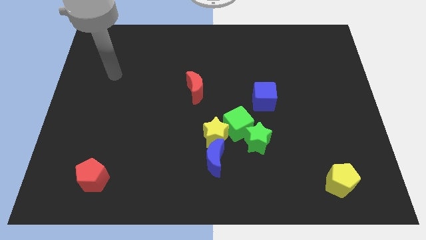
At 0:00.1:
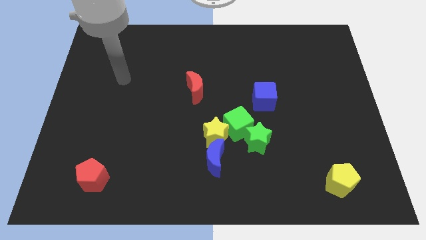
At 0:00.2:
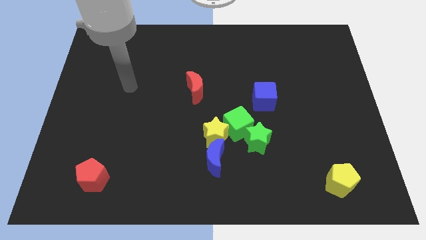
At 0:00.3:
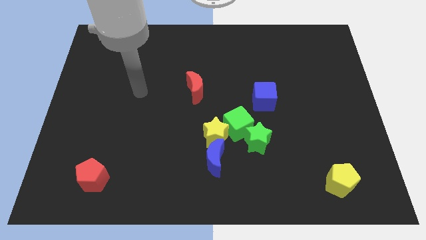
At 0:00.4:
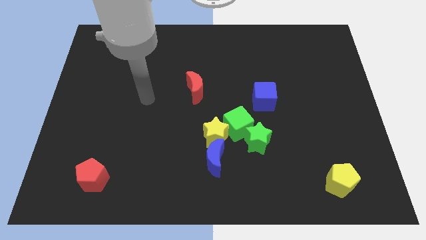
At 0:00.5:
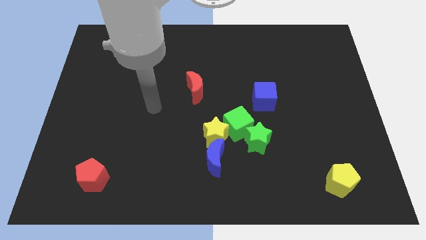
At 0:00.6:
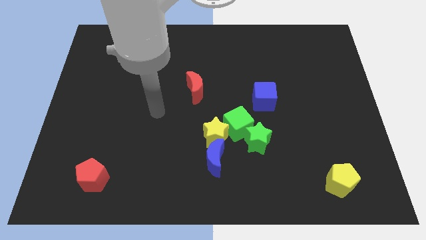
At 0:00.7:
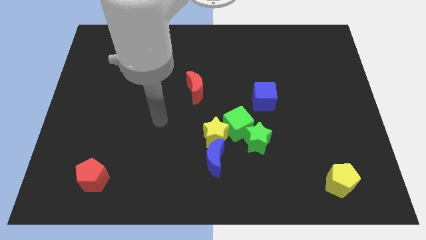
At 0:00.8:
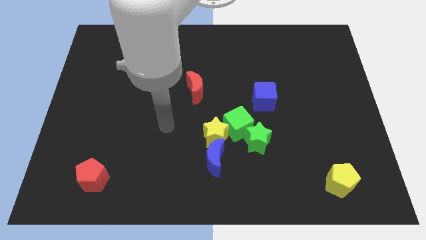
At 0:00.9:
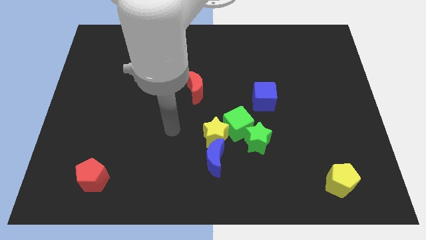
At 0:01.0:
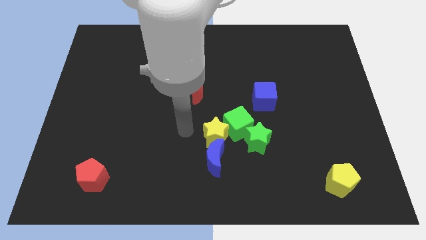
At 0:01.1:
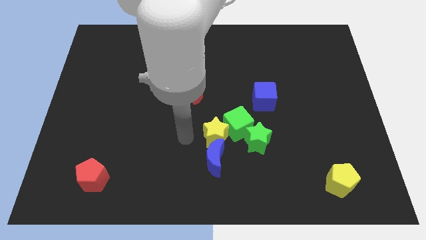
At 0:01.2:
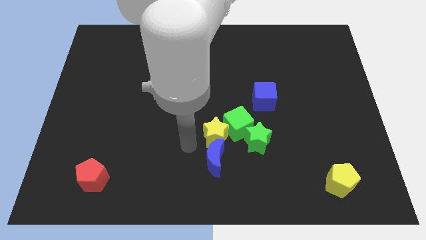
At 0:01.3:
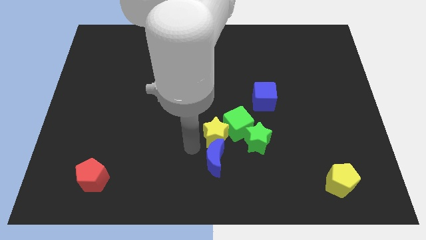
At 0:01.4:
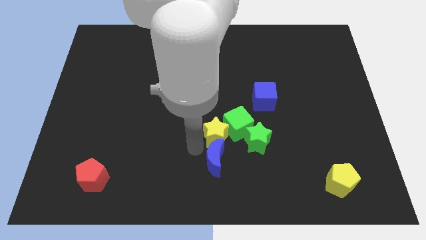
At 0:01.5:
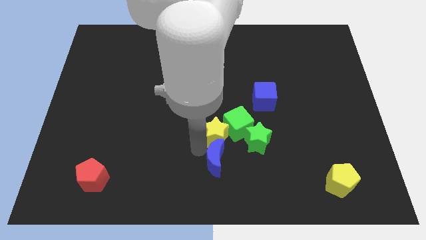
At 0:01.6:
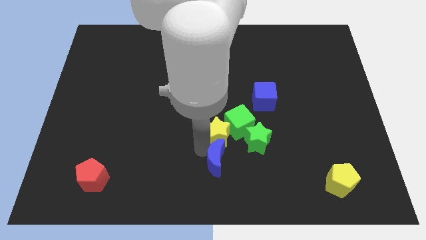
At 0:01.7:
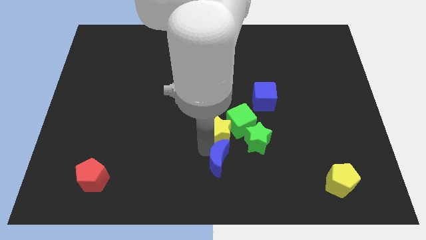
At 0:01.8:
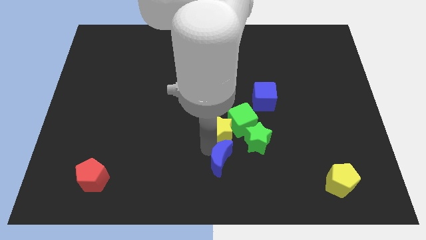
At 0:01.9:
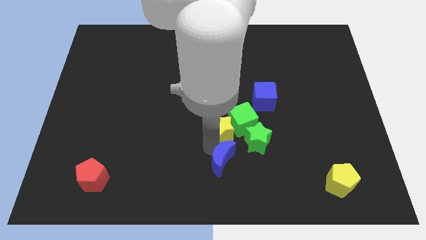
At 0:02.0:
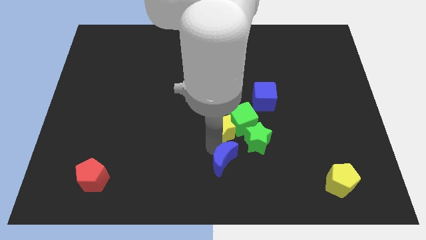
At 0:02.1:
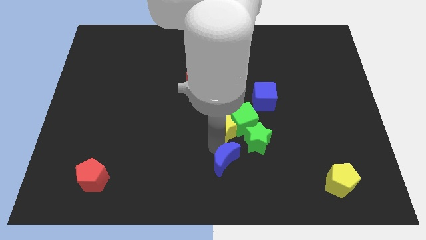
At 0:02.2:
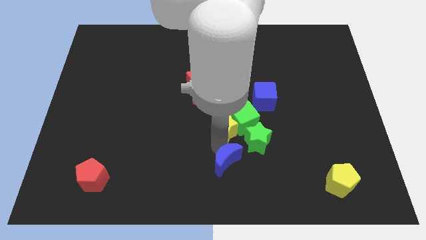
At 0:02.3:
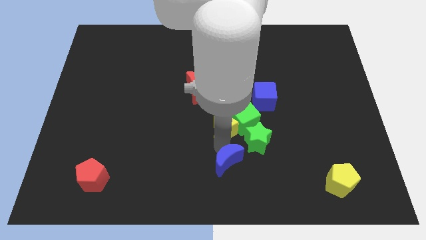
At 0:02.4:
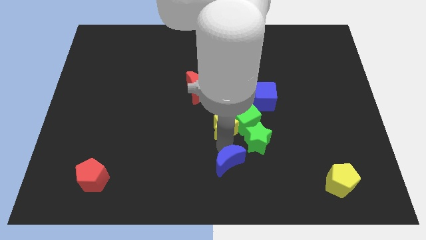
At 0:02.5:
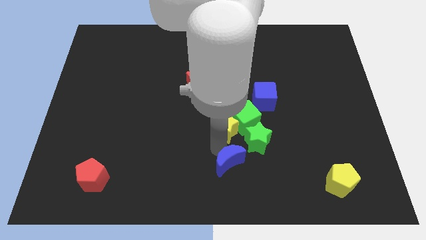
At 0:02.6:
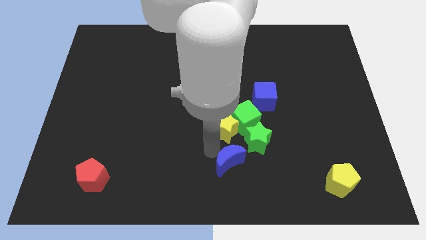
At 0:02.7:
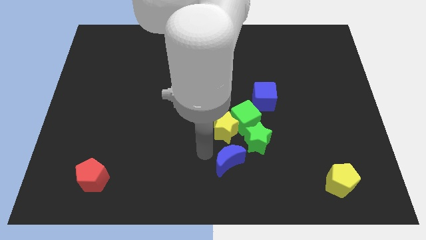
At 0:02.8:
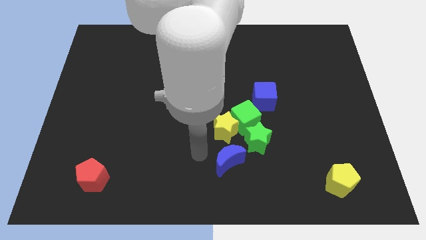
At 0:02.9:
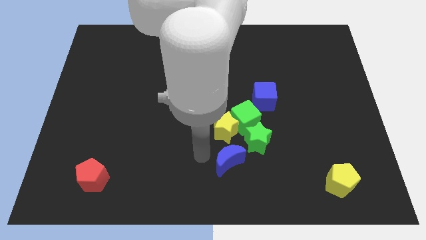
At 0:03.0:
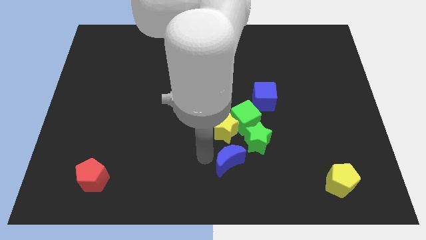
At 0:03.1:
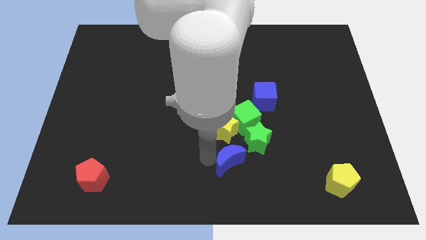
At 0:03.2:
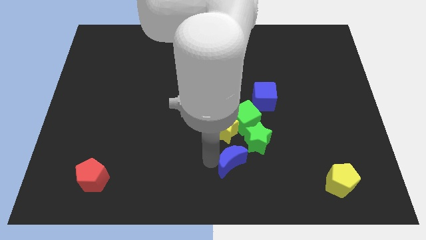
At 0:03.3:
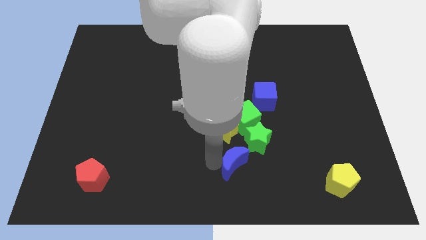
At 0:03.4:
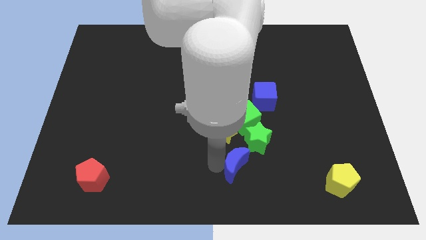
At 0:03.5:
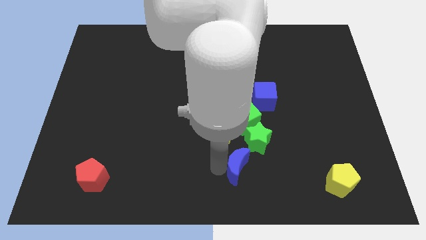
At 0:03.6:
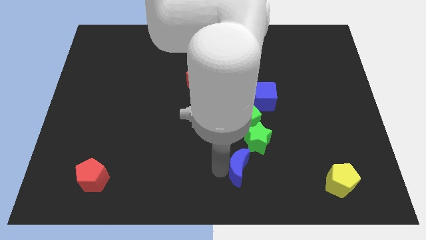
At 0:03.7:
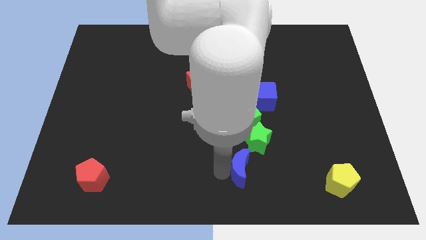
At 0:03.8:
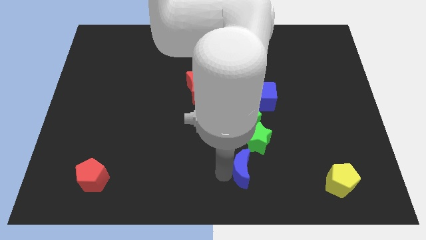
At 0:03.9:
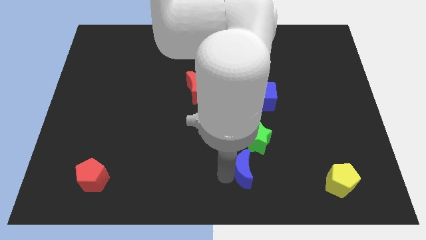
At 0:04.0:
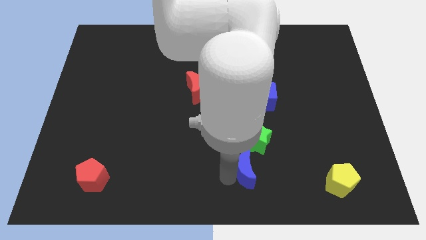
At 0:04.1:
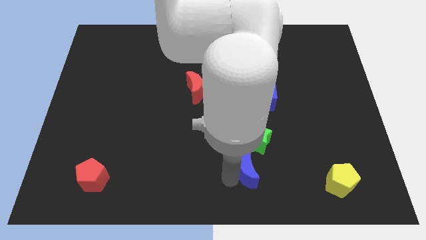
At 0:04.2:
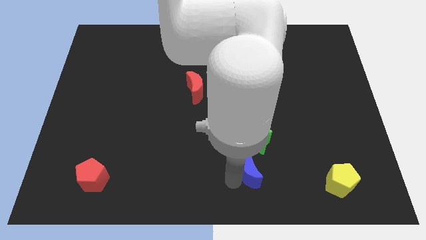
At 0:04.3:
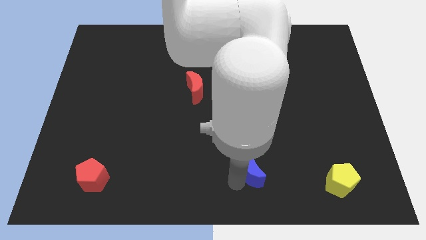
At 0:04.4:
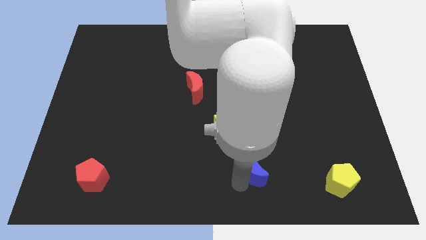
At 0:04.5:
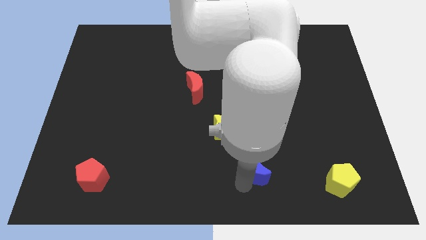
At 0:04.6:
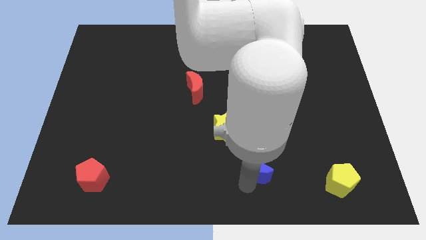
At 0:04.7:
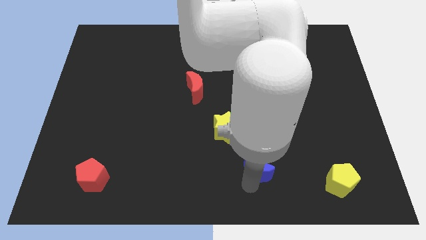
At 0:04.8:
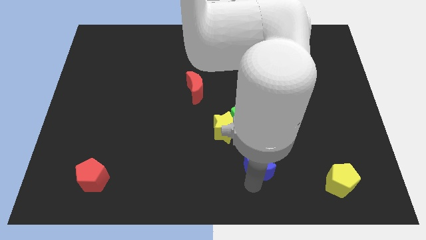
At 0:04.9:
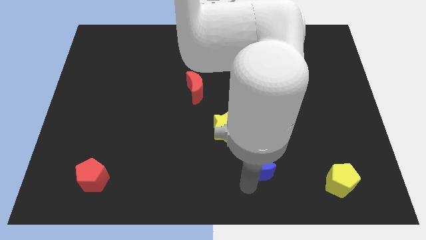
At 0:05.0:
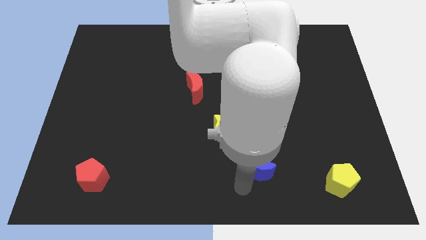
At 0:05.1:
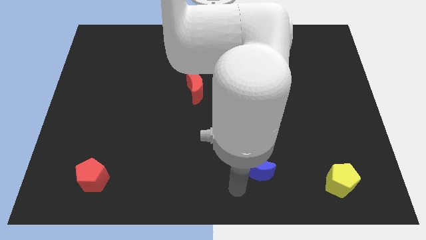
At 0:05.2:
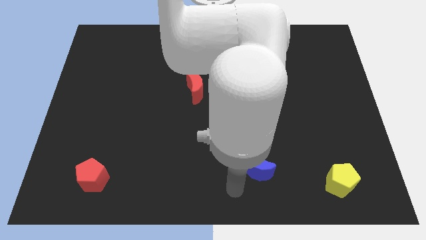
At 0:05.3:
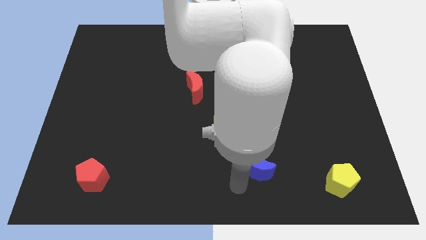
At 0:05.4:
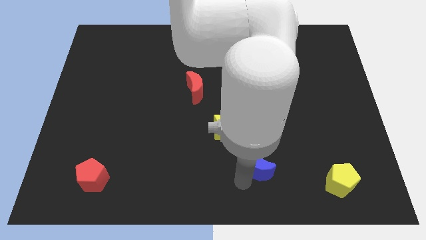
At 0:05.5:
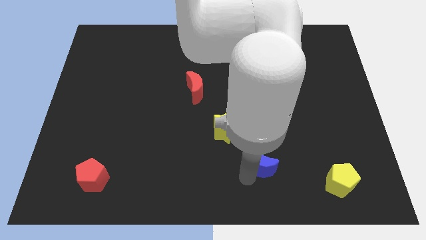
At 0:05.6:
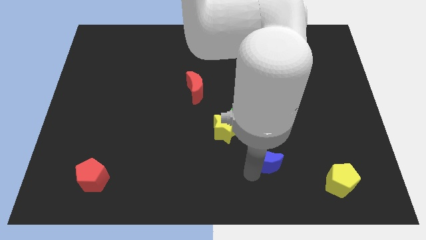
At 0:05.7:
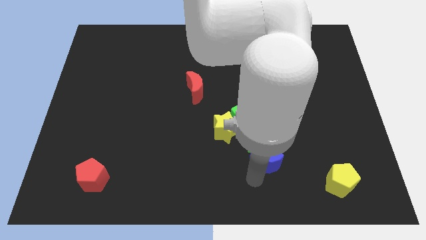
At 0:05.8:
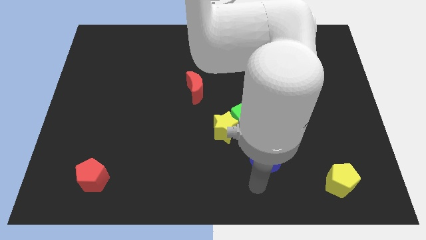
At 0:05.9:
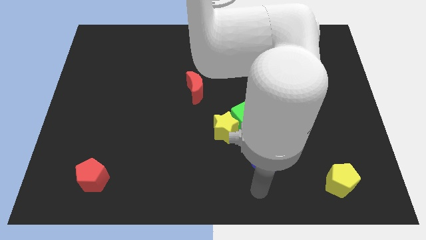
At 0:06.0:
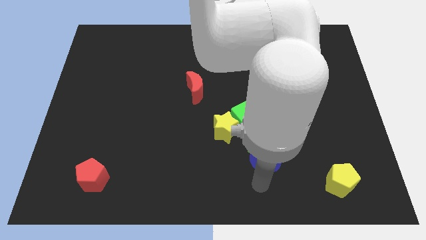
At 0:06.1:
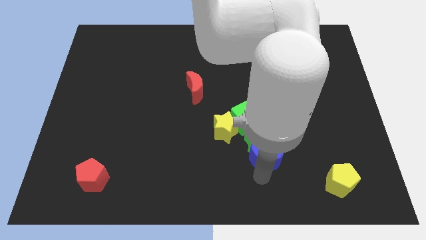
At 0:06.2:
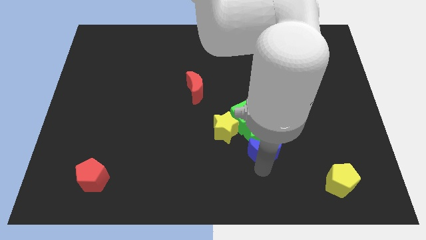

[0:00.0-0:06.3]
slide the blue moon below the blue cube

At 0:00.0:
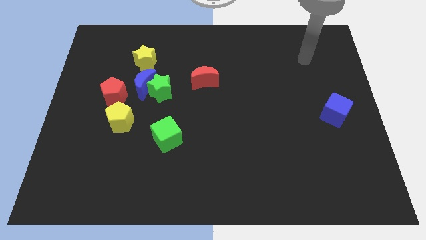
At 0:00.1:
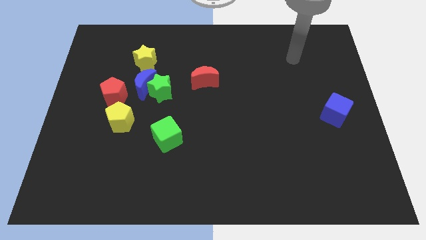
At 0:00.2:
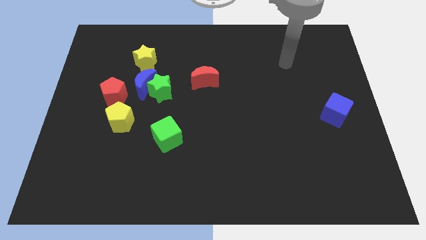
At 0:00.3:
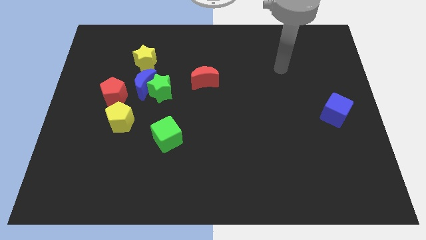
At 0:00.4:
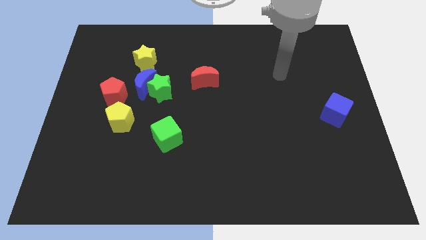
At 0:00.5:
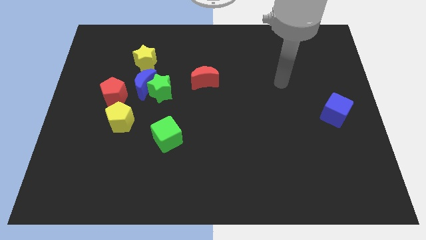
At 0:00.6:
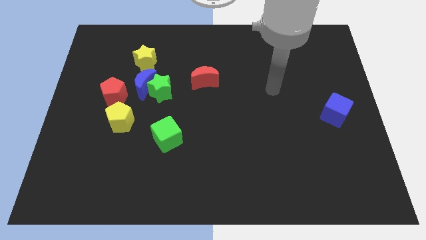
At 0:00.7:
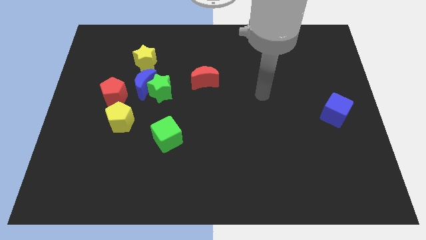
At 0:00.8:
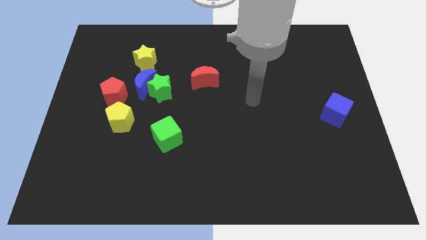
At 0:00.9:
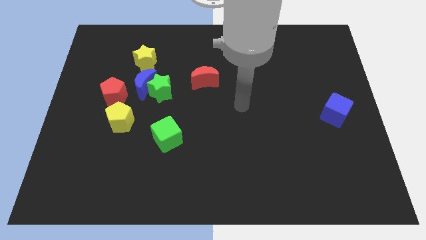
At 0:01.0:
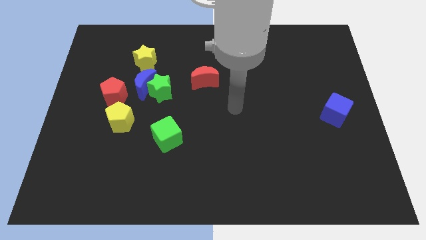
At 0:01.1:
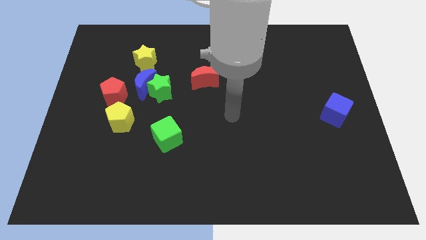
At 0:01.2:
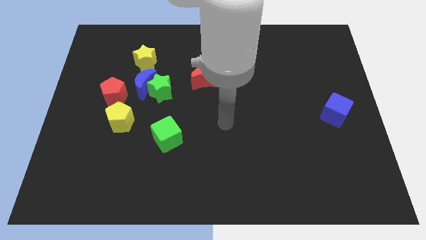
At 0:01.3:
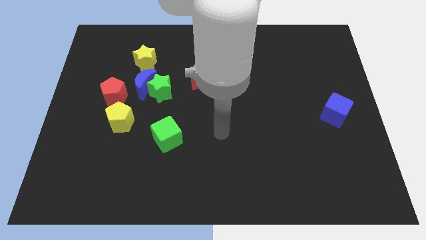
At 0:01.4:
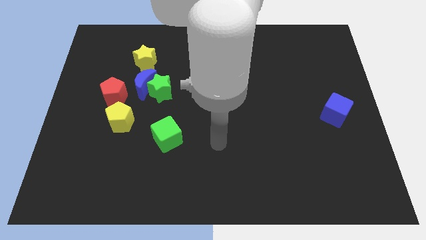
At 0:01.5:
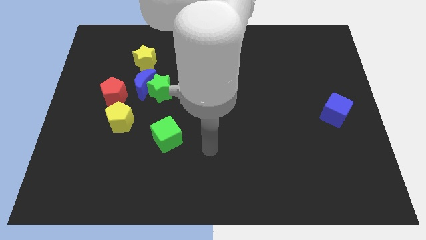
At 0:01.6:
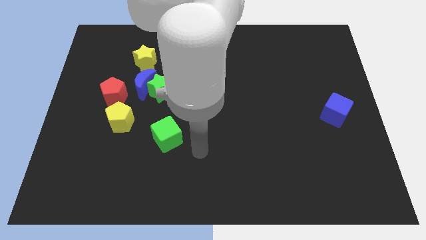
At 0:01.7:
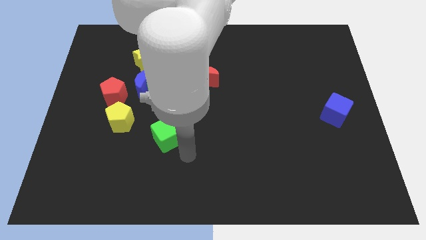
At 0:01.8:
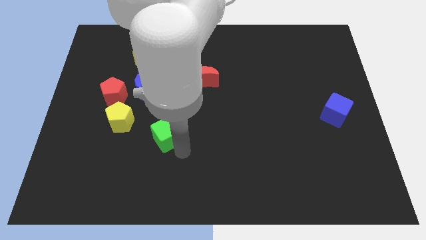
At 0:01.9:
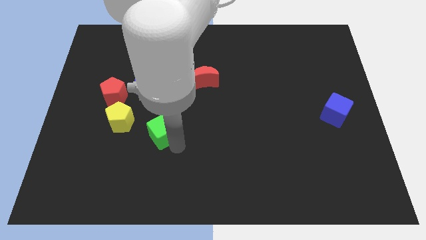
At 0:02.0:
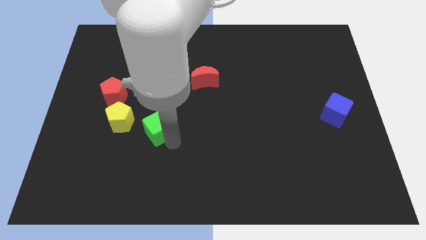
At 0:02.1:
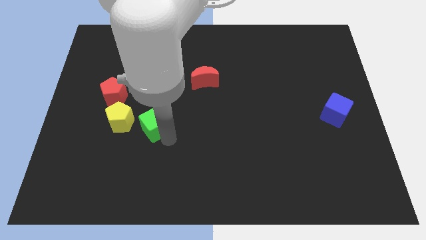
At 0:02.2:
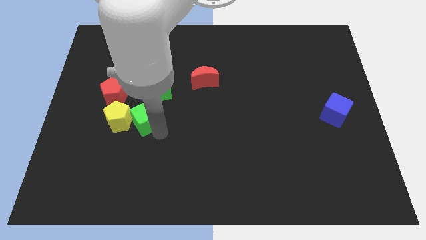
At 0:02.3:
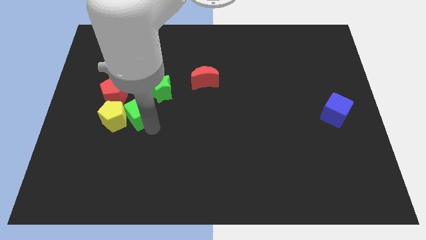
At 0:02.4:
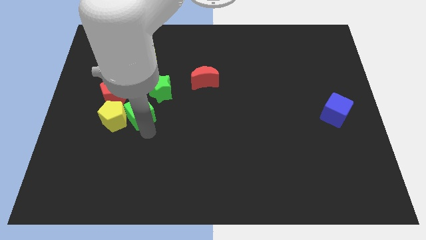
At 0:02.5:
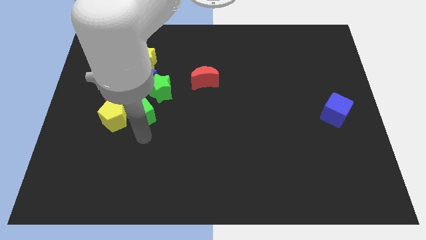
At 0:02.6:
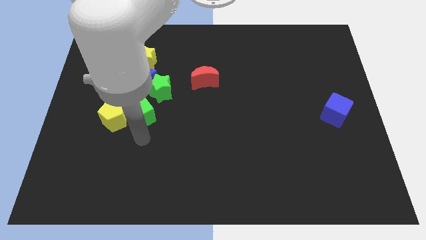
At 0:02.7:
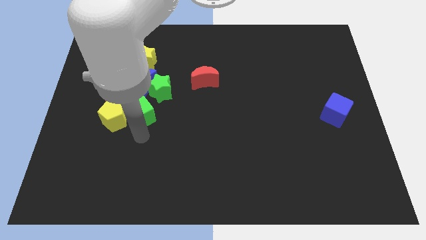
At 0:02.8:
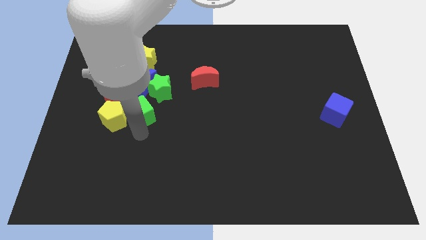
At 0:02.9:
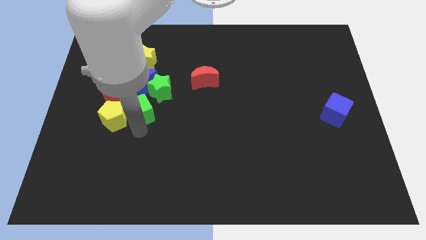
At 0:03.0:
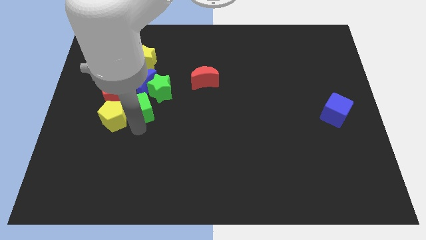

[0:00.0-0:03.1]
slide the green cube to the bottom of the yellow star
